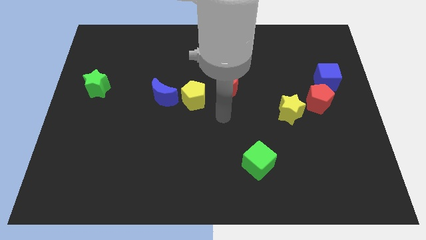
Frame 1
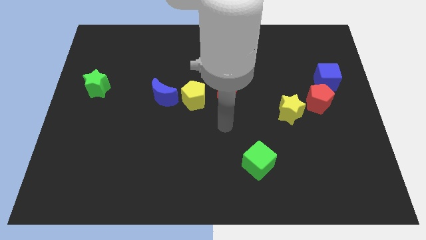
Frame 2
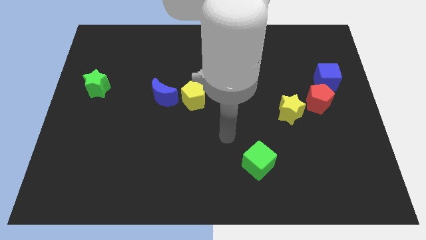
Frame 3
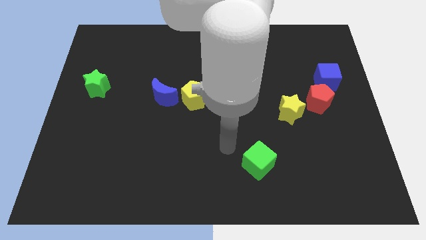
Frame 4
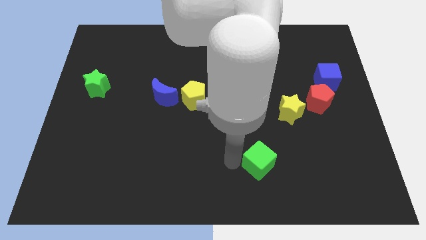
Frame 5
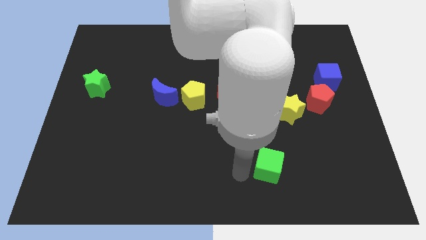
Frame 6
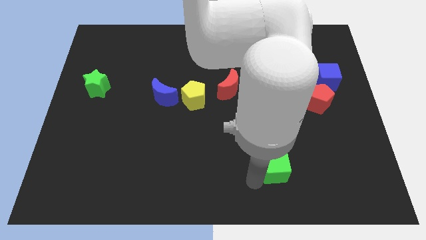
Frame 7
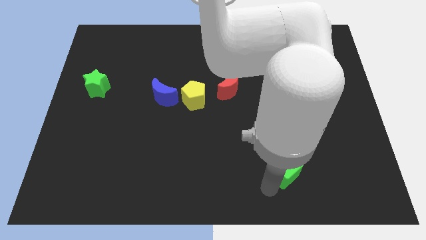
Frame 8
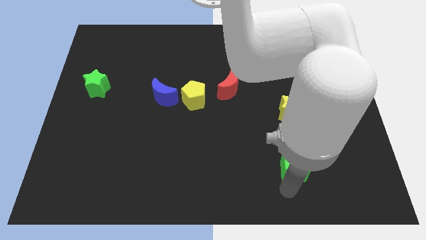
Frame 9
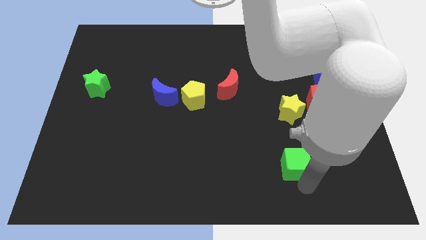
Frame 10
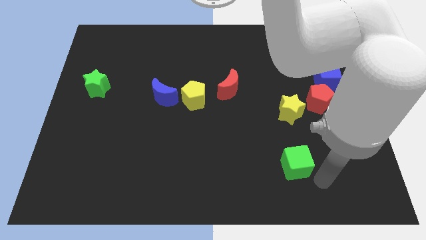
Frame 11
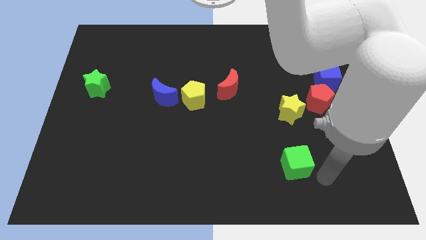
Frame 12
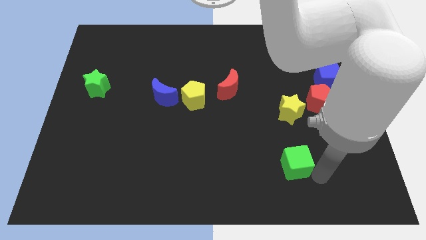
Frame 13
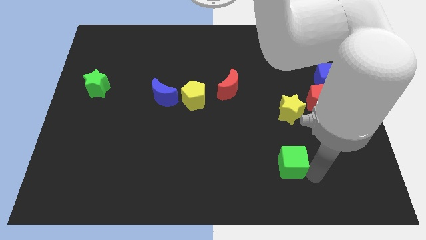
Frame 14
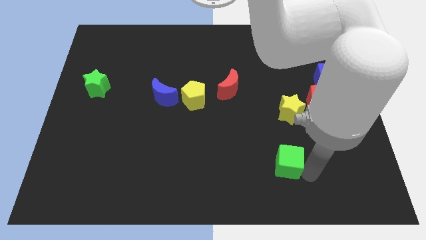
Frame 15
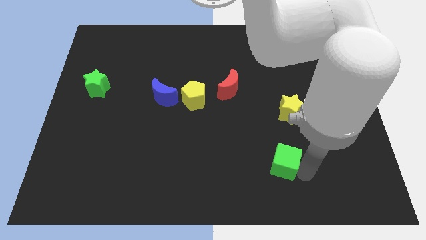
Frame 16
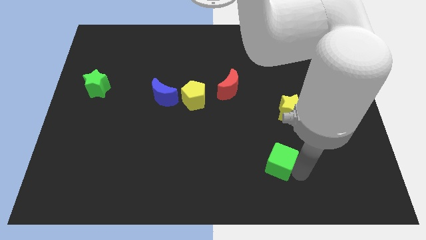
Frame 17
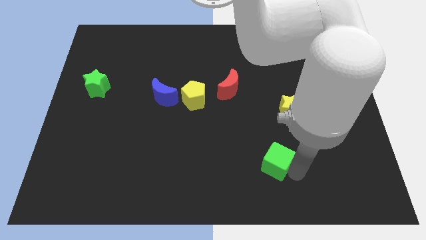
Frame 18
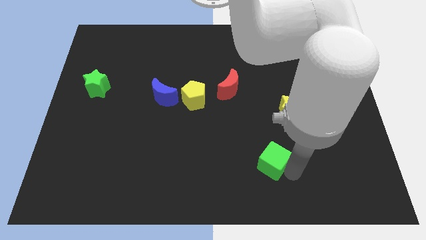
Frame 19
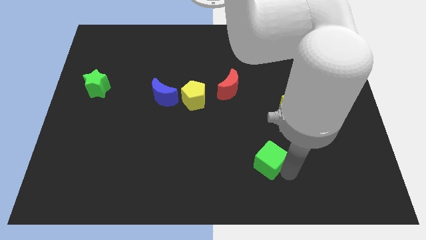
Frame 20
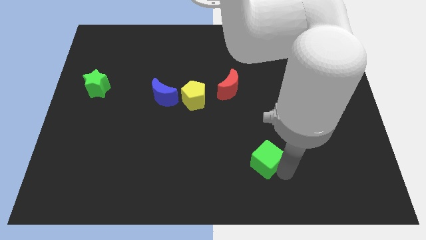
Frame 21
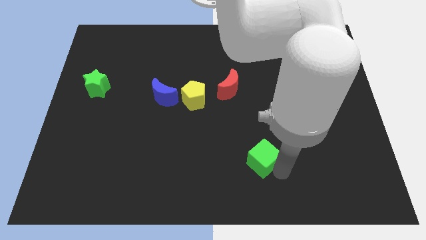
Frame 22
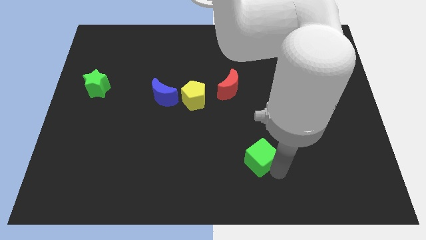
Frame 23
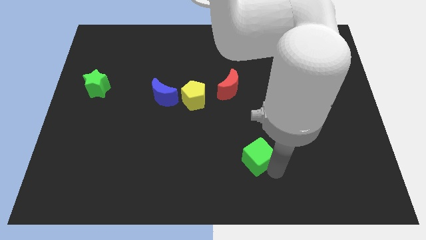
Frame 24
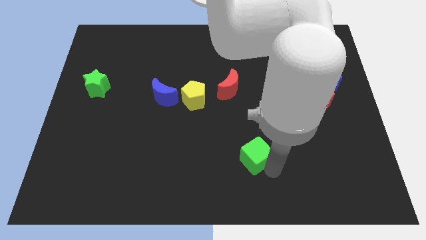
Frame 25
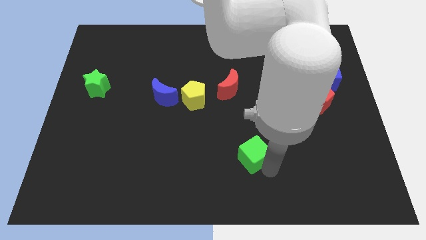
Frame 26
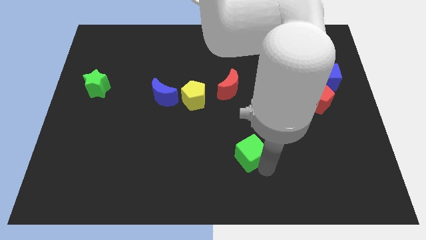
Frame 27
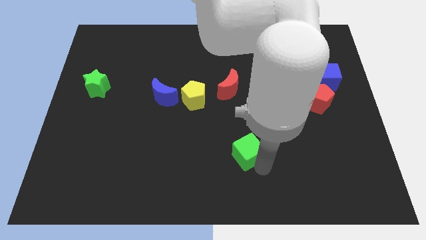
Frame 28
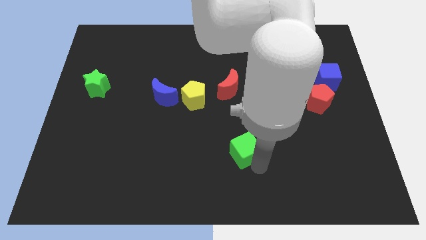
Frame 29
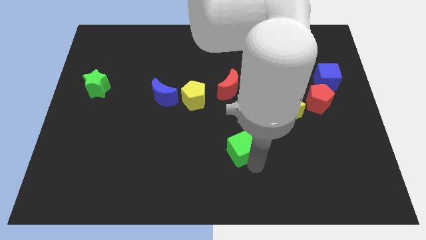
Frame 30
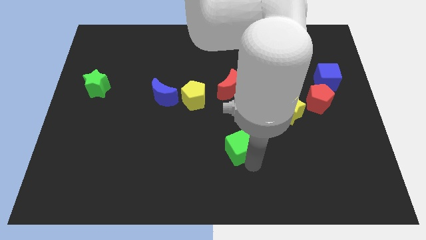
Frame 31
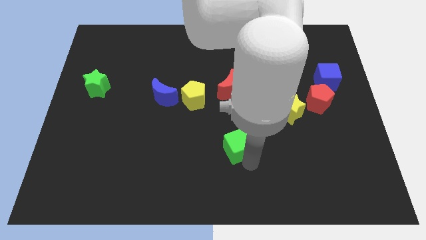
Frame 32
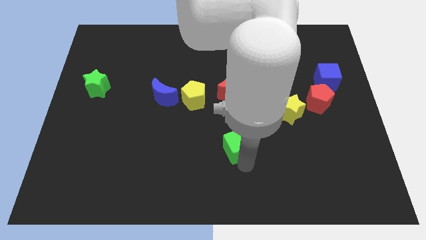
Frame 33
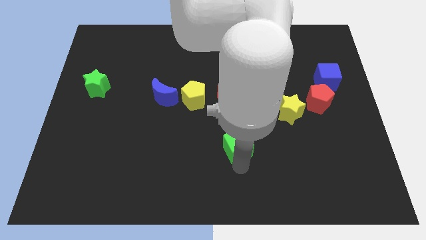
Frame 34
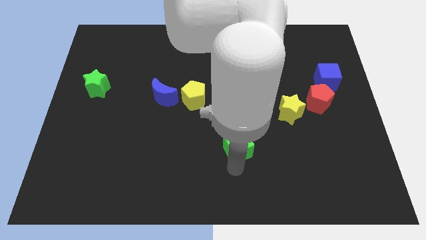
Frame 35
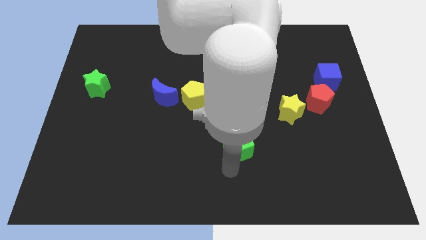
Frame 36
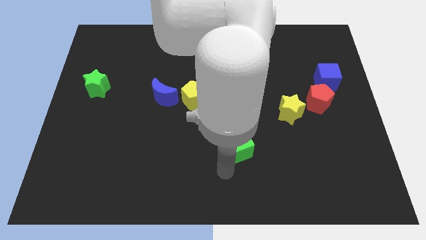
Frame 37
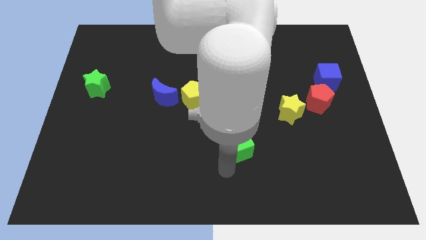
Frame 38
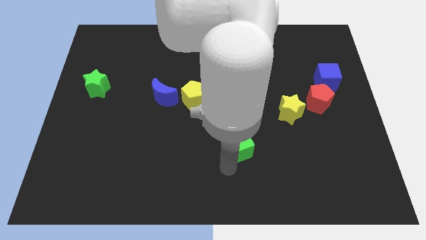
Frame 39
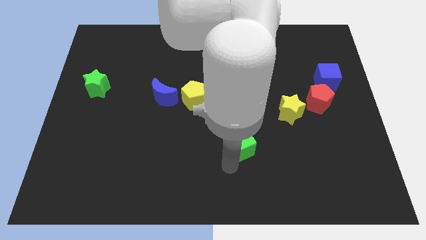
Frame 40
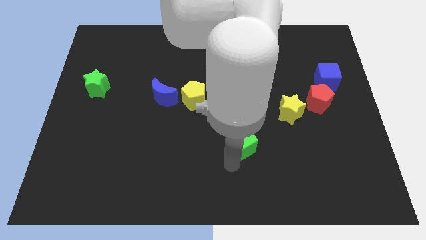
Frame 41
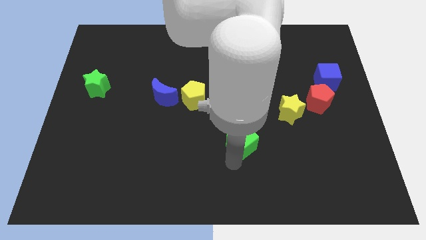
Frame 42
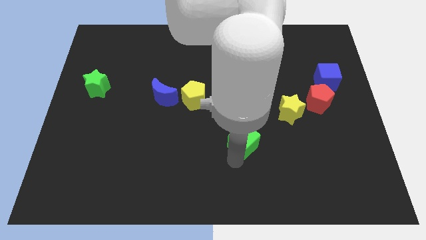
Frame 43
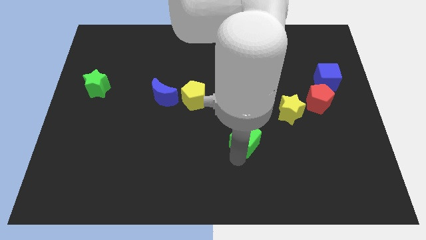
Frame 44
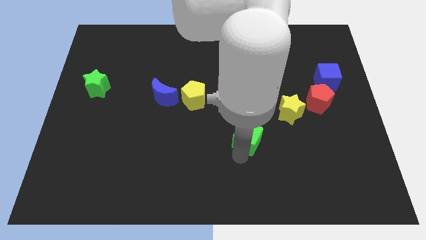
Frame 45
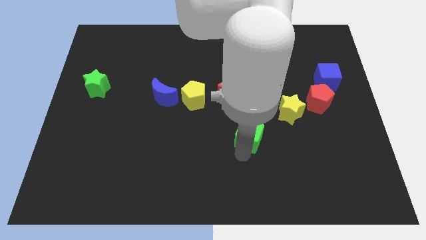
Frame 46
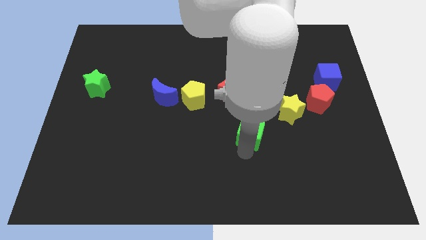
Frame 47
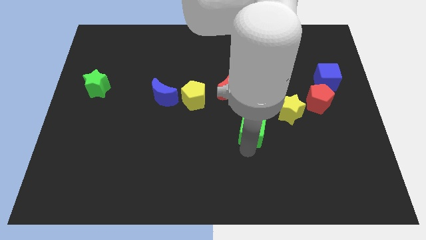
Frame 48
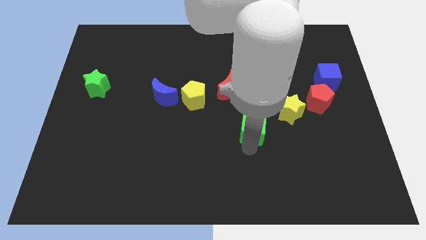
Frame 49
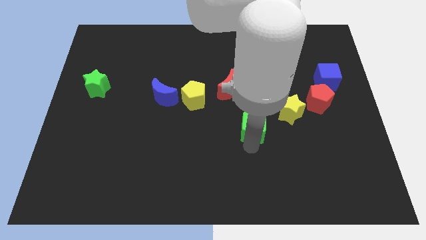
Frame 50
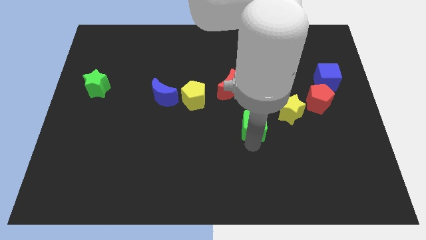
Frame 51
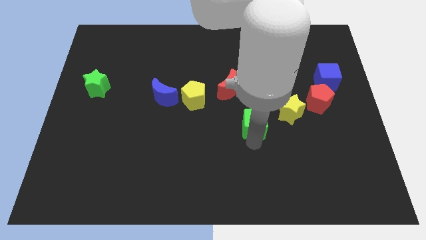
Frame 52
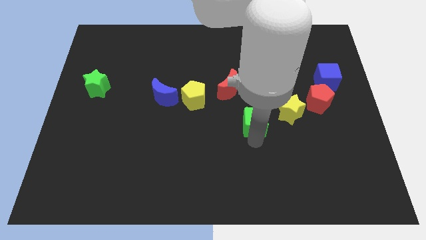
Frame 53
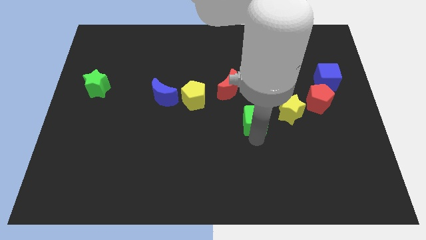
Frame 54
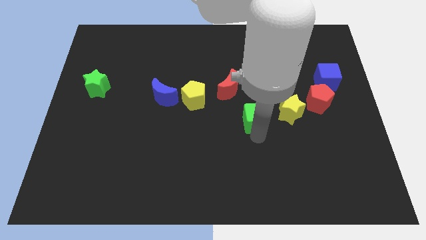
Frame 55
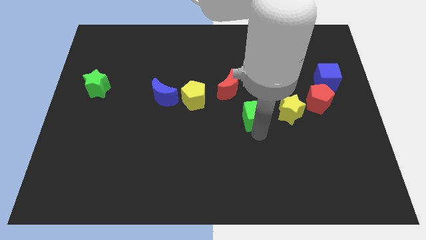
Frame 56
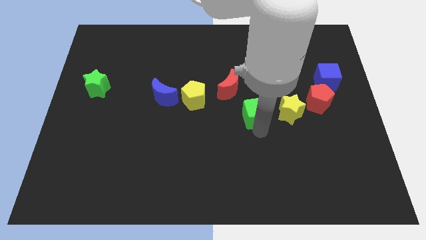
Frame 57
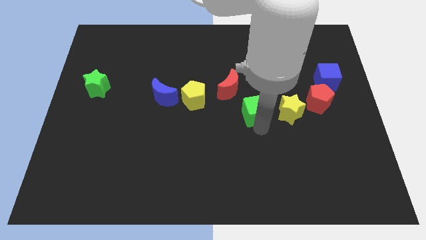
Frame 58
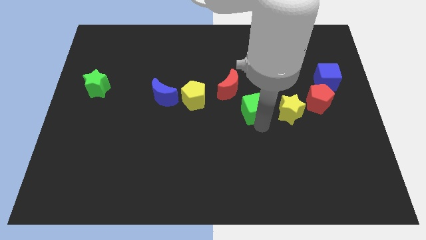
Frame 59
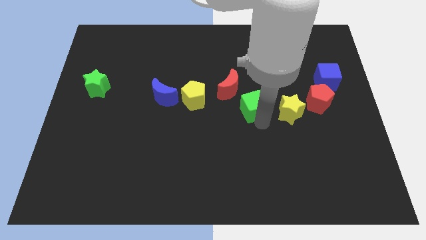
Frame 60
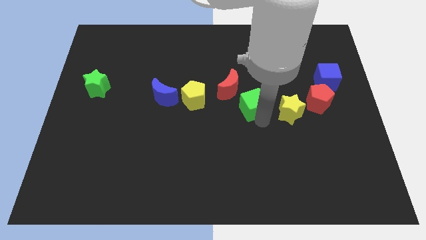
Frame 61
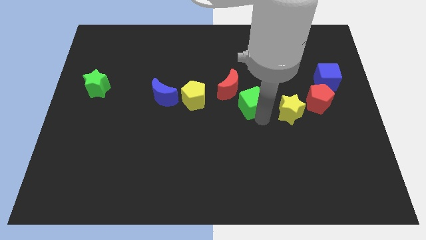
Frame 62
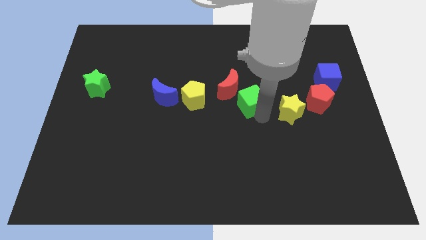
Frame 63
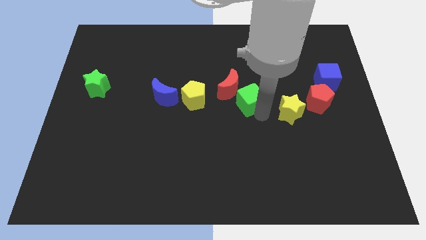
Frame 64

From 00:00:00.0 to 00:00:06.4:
move the green cube towards the red moon

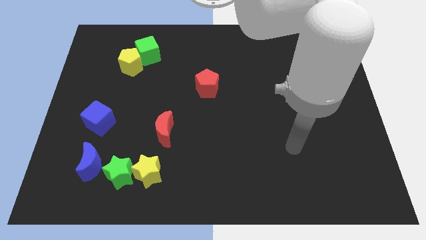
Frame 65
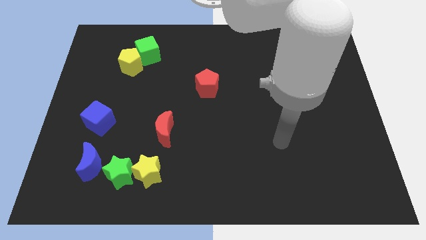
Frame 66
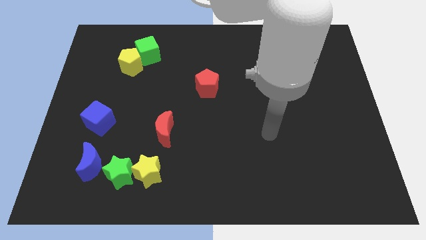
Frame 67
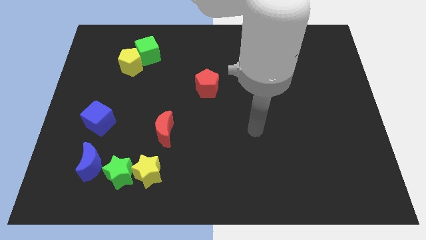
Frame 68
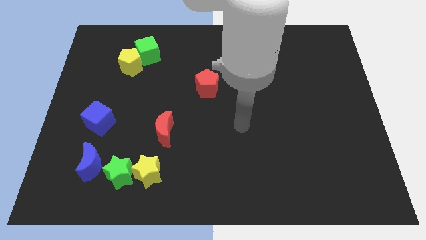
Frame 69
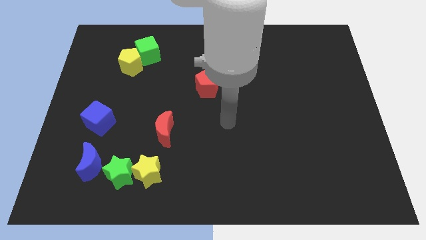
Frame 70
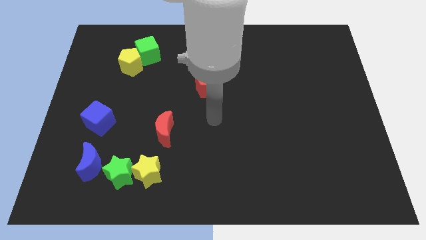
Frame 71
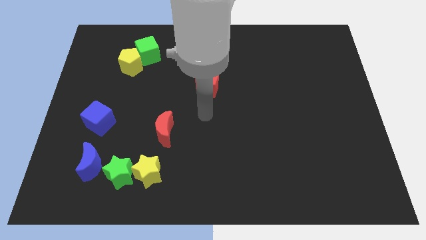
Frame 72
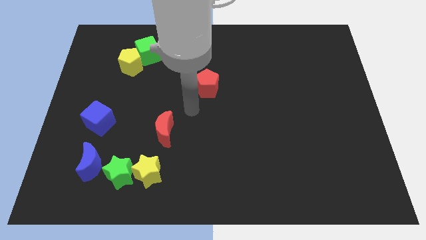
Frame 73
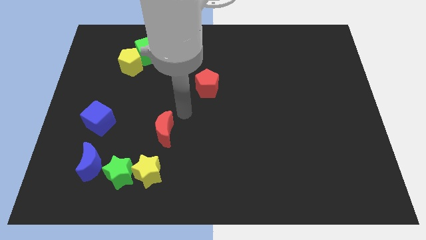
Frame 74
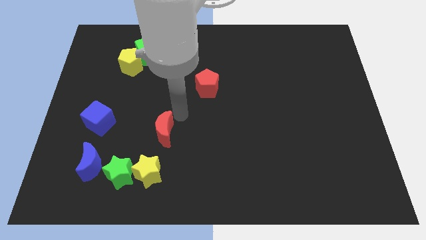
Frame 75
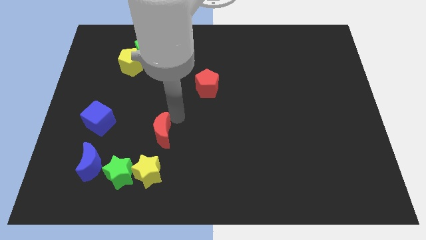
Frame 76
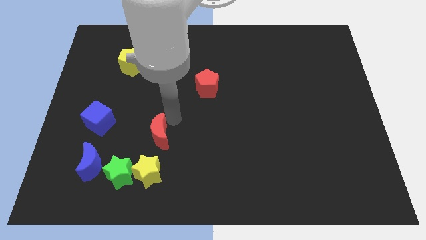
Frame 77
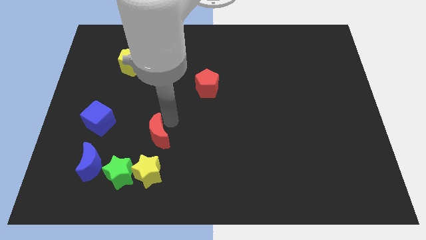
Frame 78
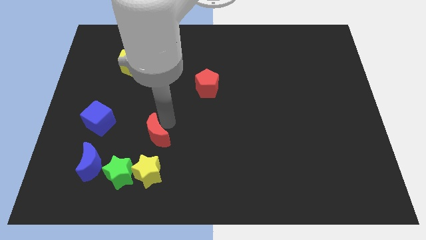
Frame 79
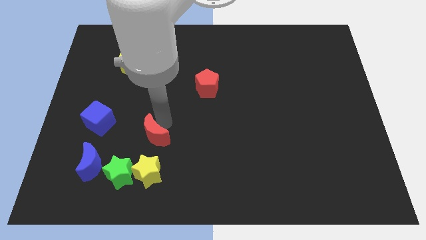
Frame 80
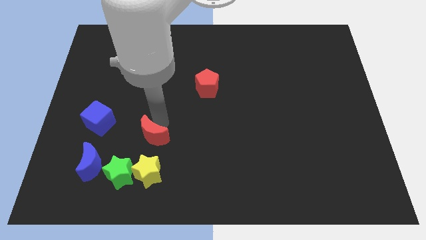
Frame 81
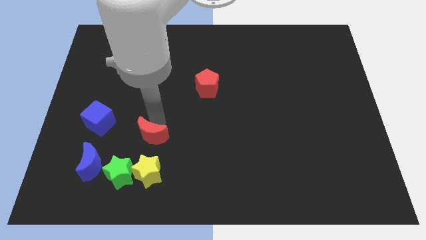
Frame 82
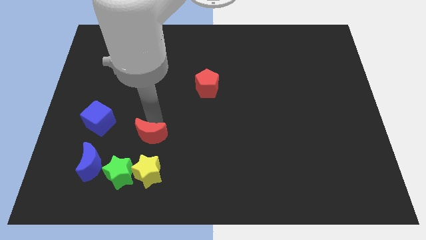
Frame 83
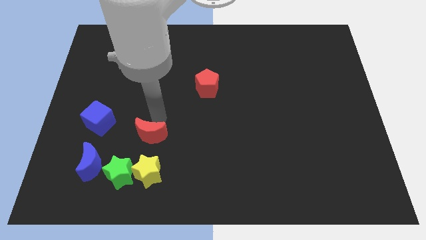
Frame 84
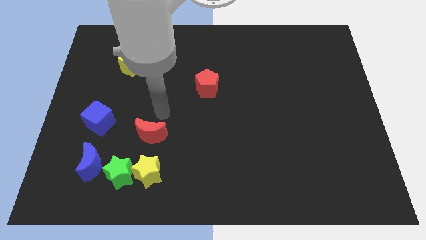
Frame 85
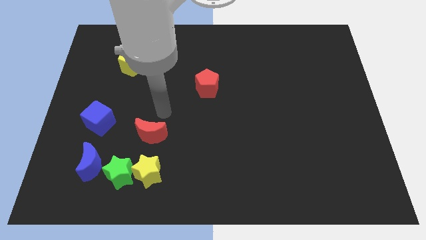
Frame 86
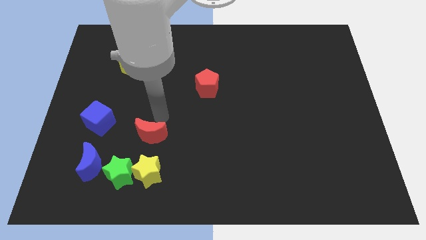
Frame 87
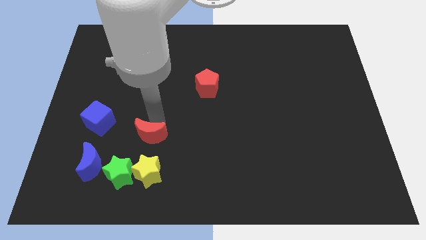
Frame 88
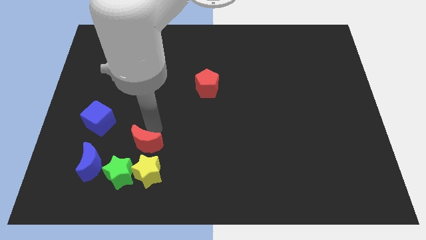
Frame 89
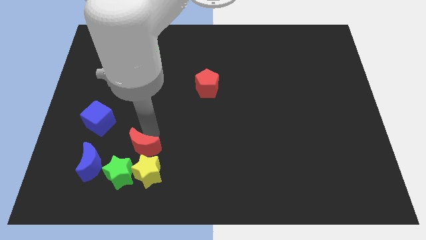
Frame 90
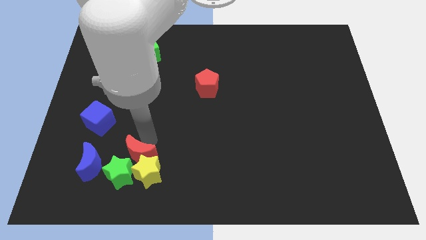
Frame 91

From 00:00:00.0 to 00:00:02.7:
move the red moon towards the green star
